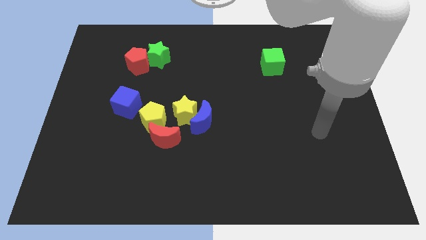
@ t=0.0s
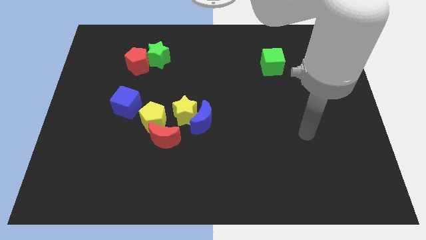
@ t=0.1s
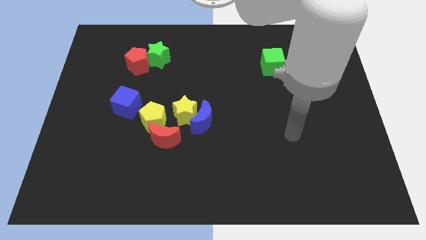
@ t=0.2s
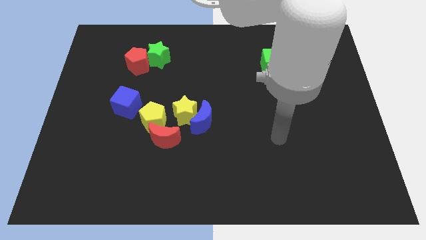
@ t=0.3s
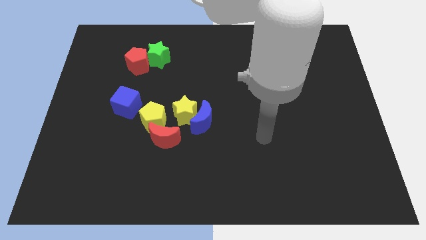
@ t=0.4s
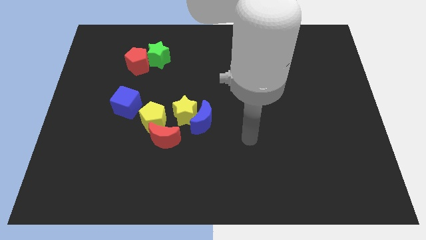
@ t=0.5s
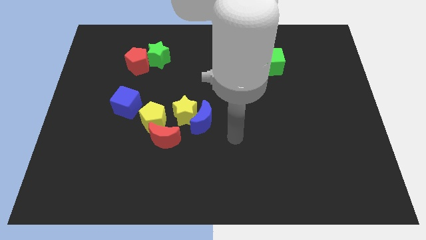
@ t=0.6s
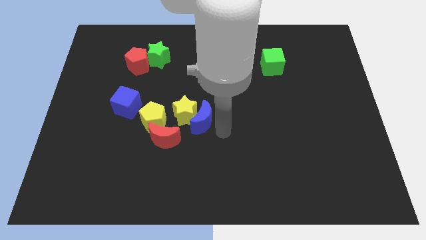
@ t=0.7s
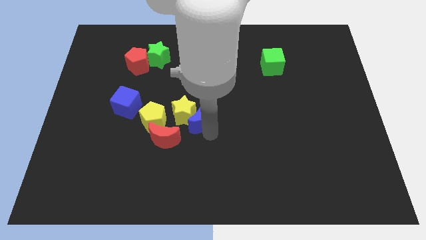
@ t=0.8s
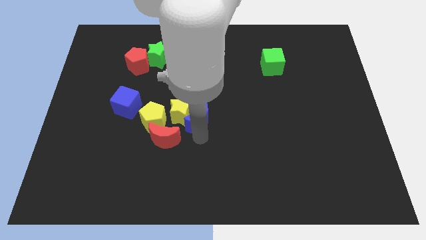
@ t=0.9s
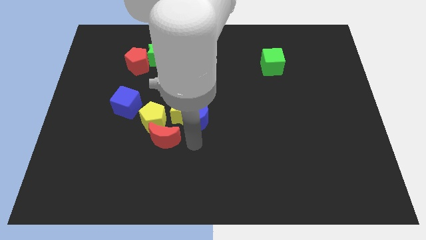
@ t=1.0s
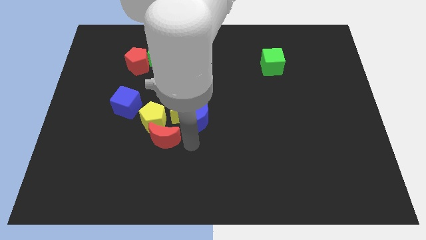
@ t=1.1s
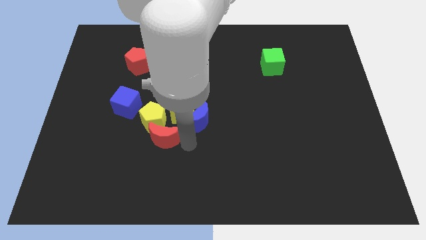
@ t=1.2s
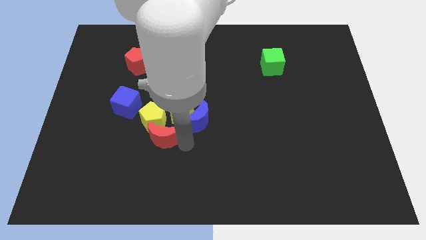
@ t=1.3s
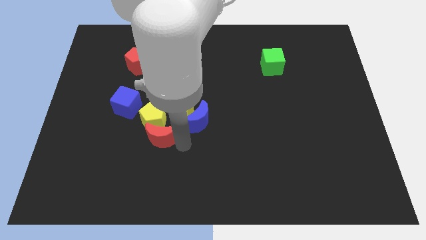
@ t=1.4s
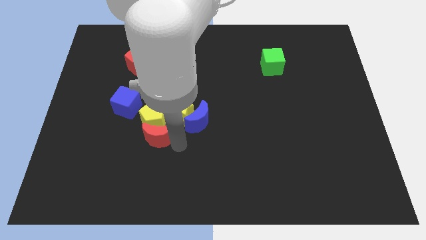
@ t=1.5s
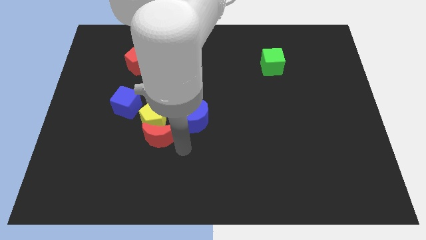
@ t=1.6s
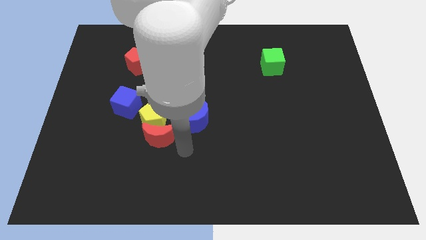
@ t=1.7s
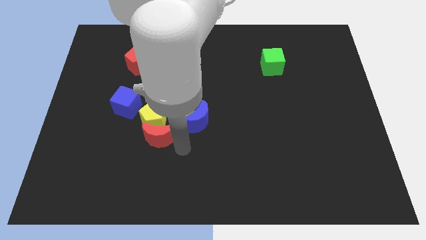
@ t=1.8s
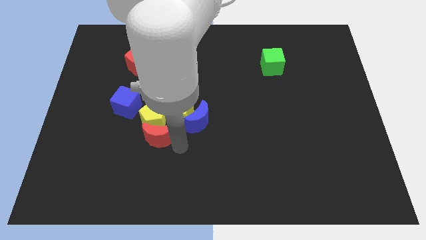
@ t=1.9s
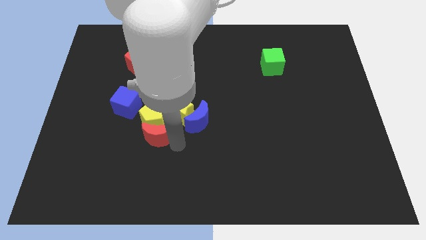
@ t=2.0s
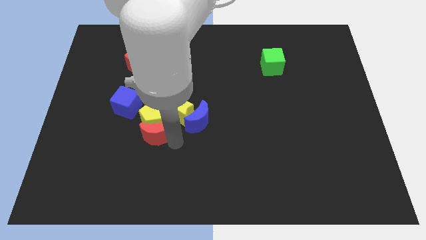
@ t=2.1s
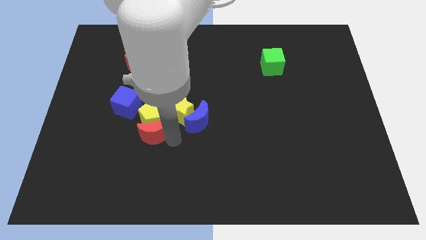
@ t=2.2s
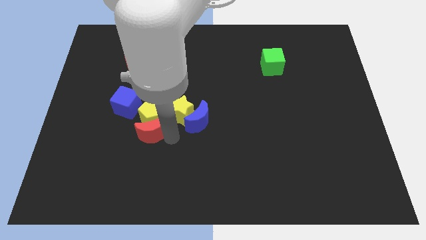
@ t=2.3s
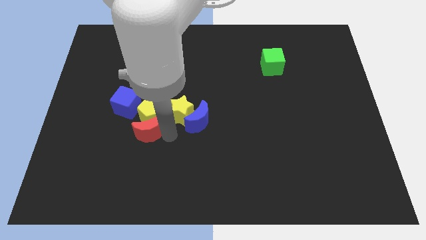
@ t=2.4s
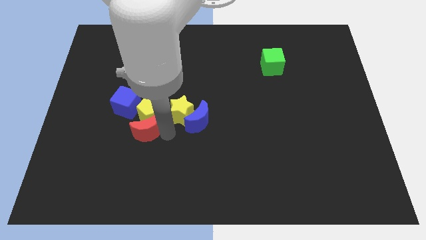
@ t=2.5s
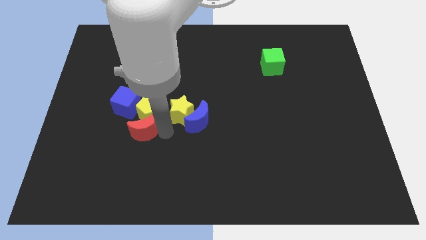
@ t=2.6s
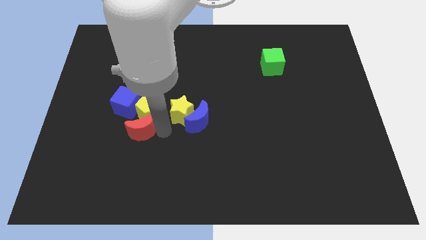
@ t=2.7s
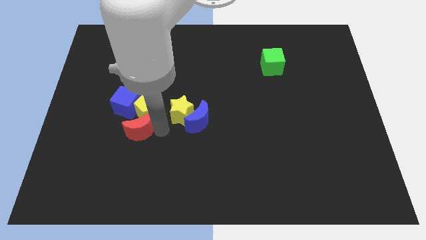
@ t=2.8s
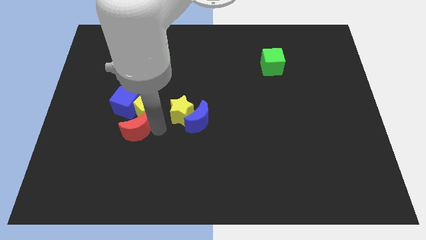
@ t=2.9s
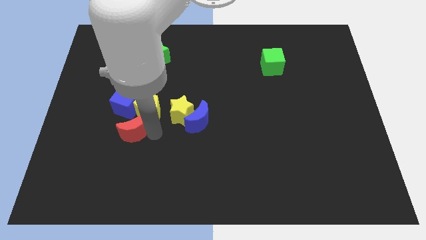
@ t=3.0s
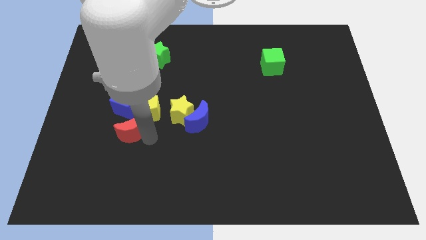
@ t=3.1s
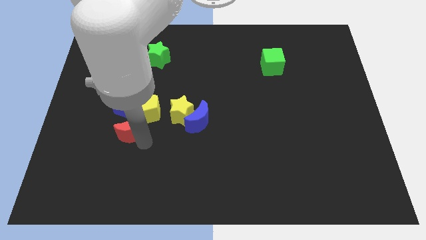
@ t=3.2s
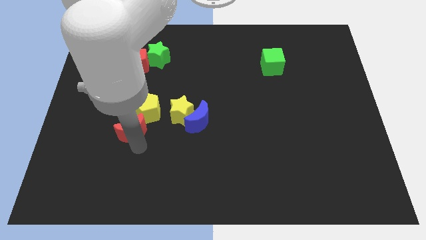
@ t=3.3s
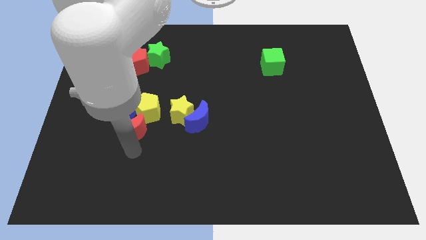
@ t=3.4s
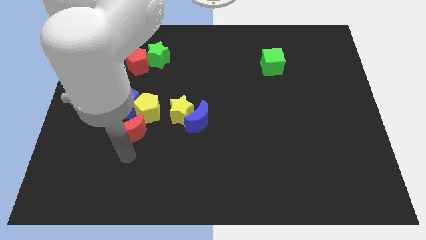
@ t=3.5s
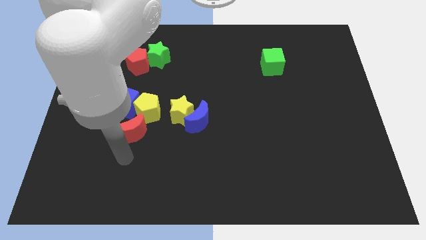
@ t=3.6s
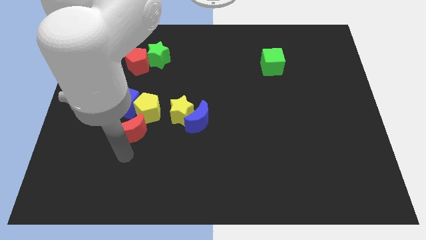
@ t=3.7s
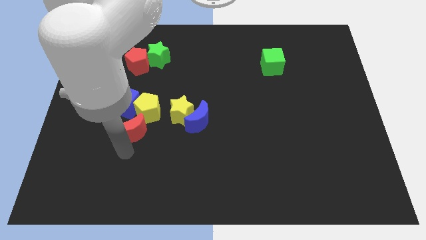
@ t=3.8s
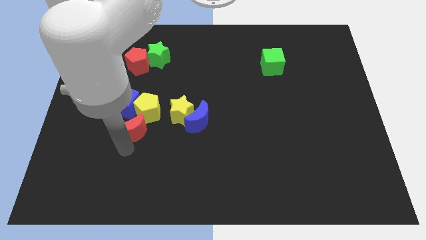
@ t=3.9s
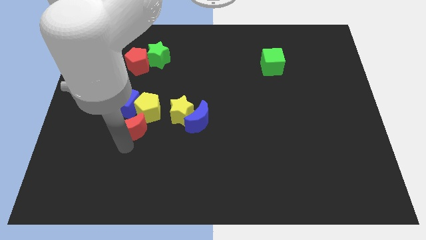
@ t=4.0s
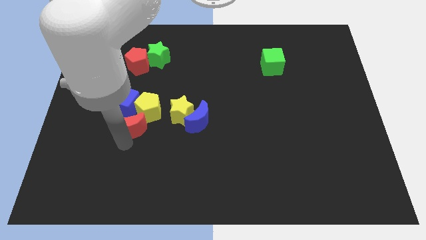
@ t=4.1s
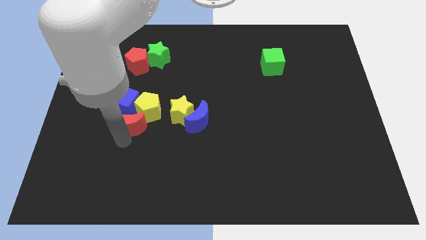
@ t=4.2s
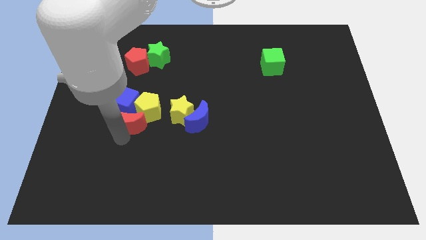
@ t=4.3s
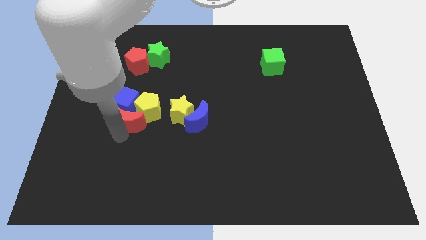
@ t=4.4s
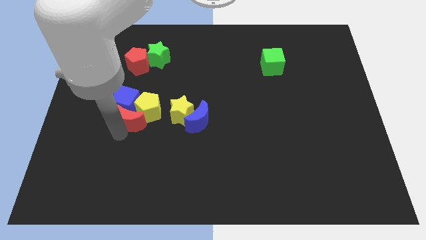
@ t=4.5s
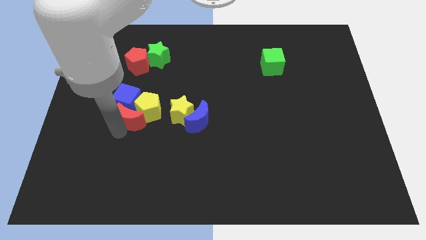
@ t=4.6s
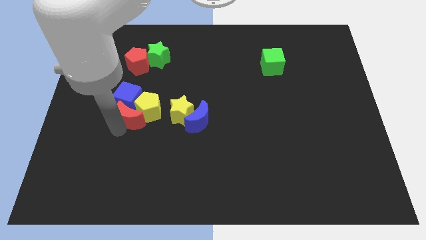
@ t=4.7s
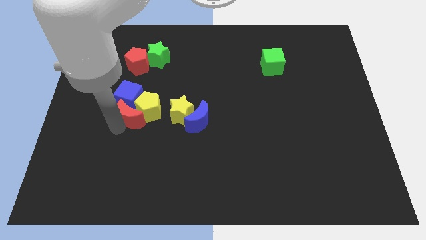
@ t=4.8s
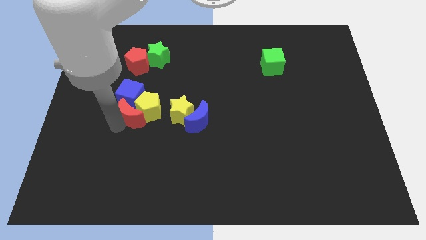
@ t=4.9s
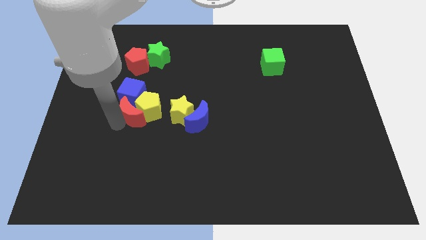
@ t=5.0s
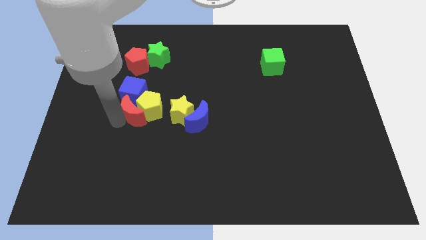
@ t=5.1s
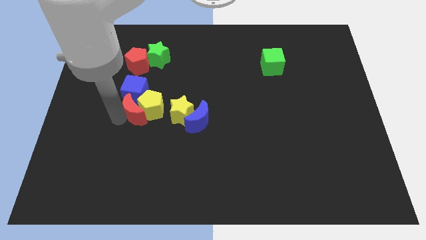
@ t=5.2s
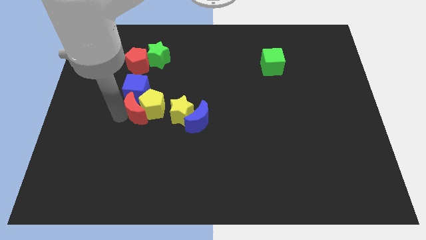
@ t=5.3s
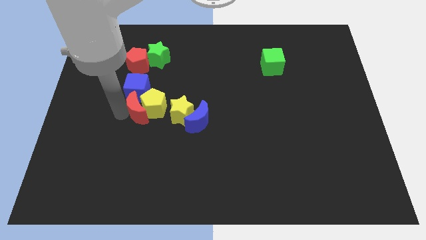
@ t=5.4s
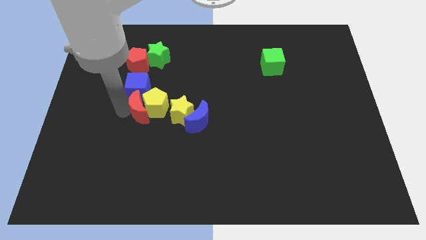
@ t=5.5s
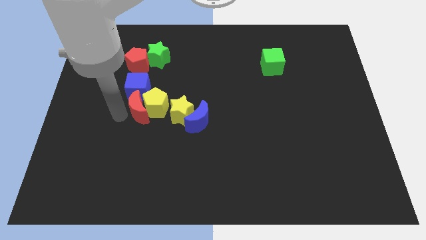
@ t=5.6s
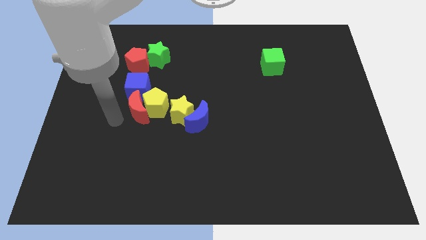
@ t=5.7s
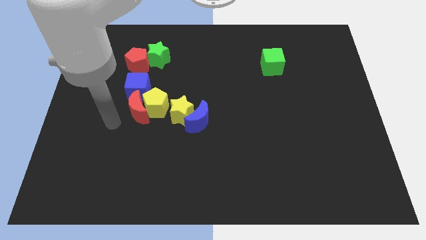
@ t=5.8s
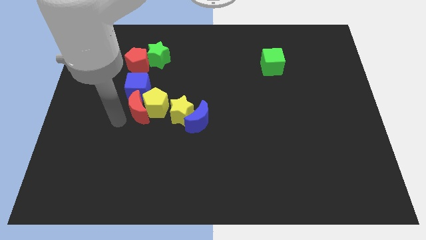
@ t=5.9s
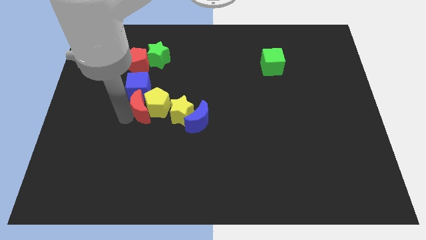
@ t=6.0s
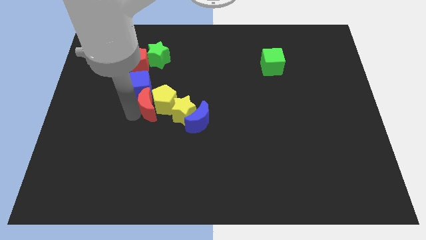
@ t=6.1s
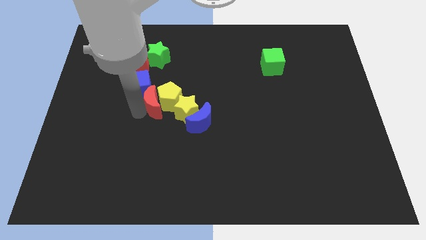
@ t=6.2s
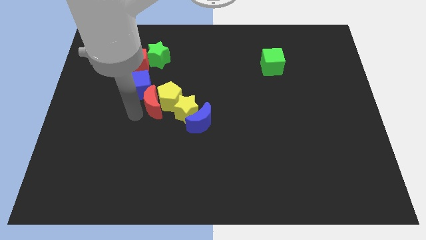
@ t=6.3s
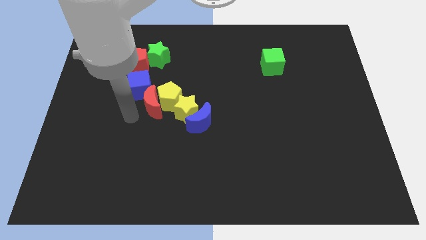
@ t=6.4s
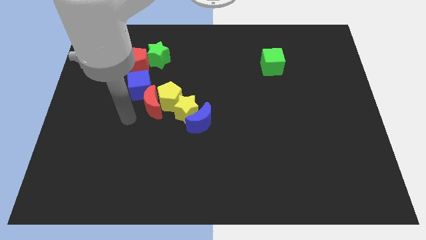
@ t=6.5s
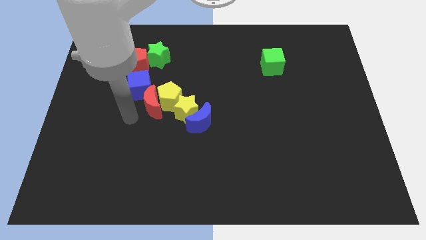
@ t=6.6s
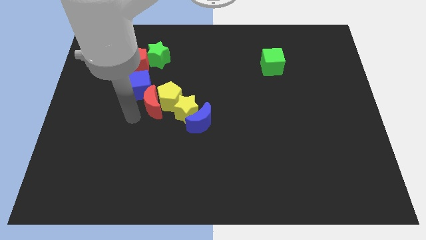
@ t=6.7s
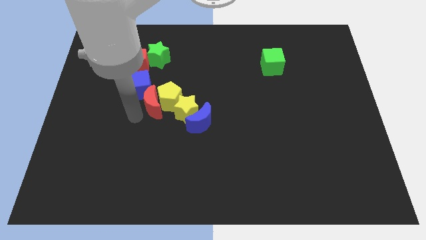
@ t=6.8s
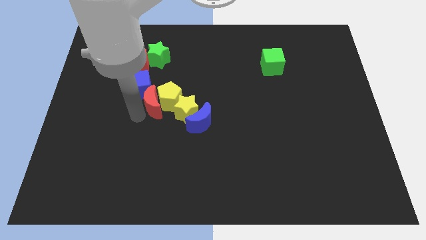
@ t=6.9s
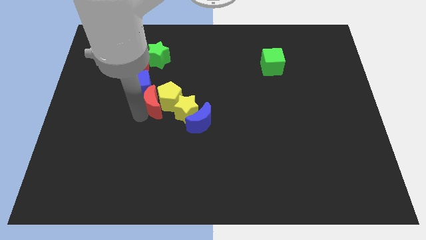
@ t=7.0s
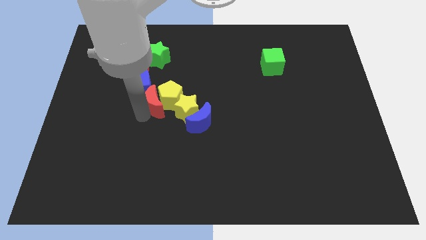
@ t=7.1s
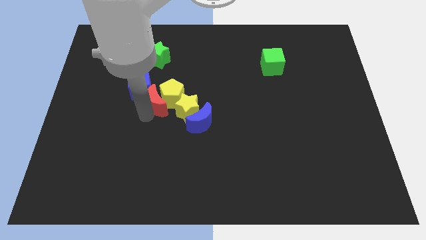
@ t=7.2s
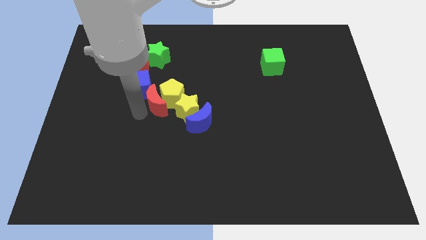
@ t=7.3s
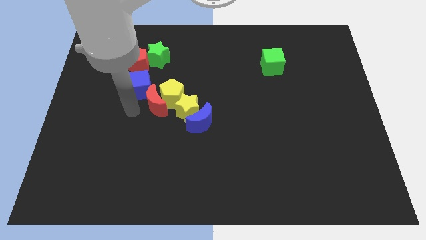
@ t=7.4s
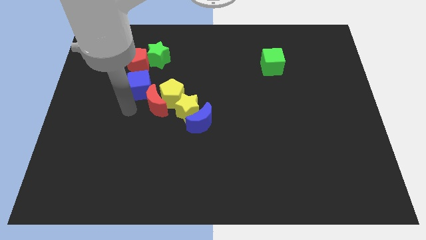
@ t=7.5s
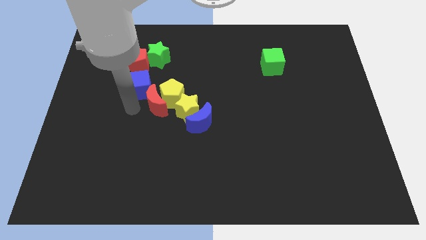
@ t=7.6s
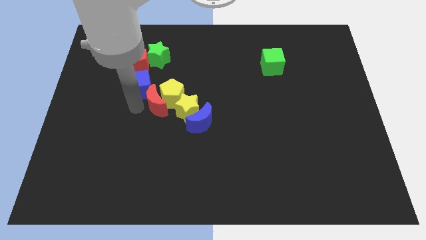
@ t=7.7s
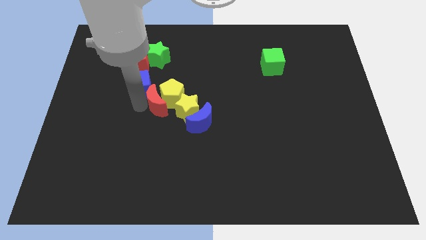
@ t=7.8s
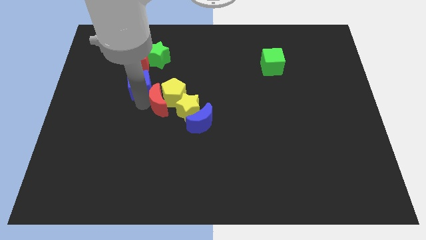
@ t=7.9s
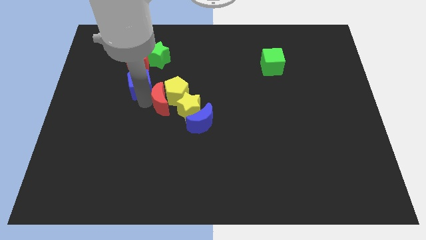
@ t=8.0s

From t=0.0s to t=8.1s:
move the red moon to the middle
